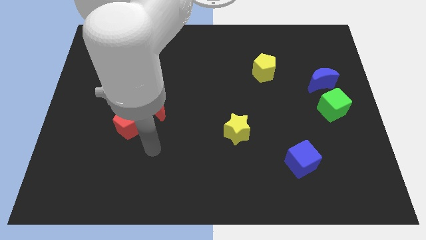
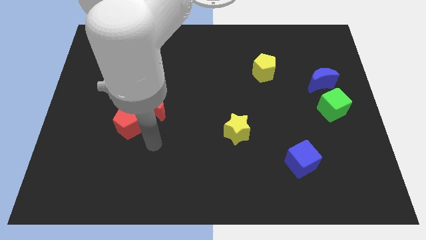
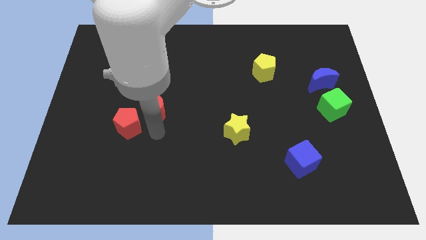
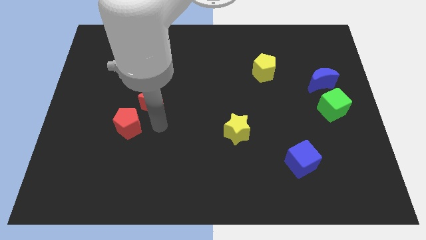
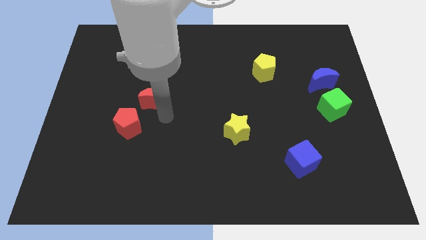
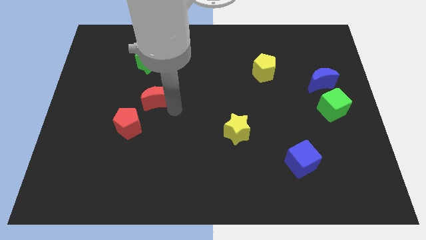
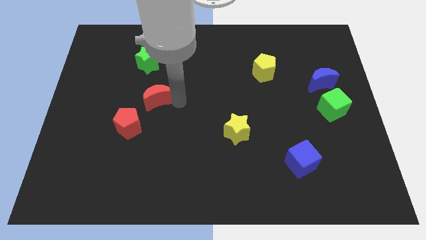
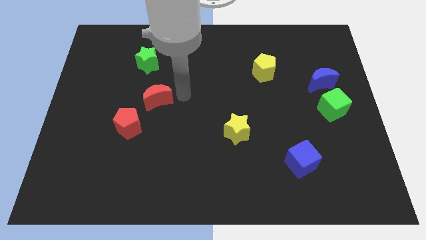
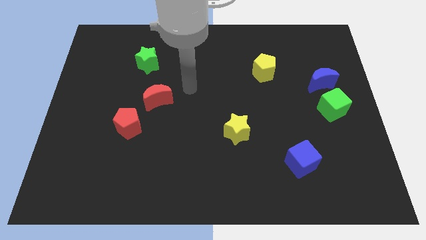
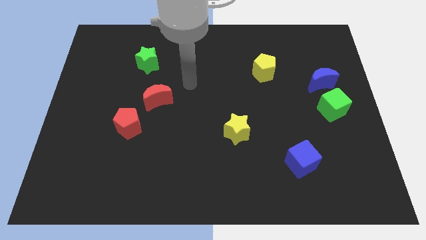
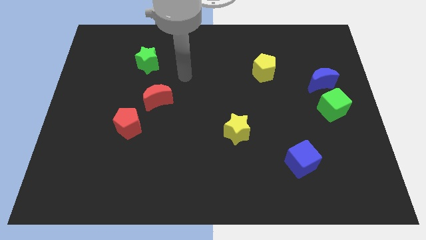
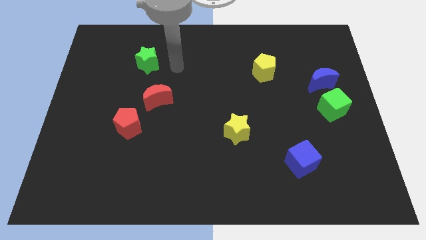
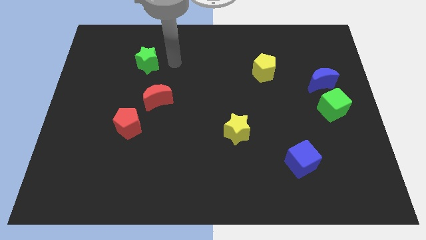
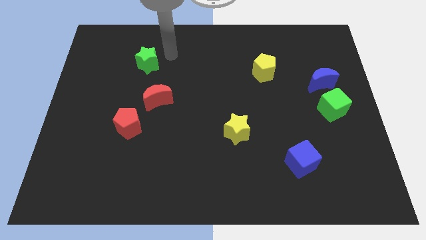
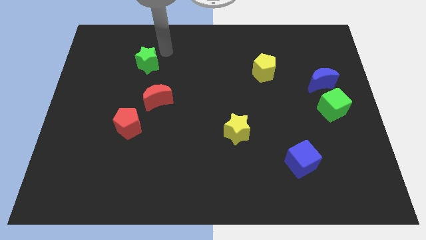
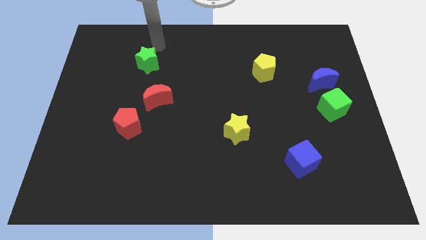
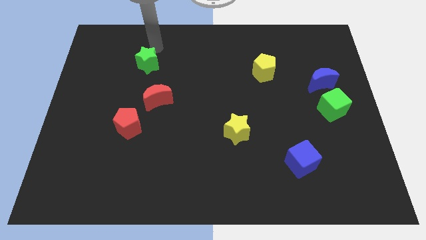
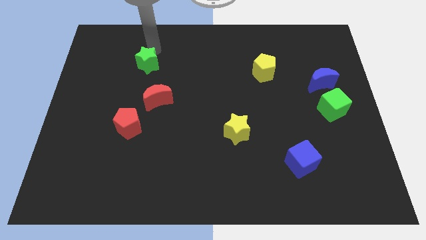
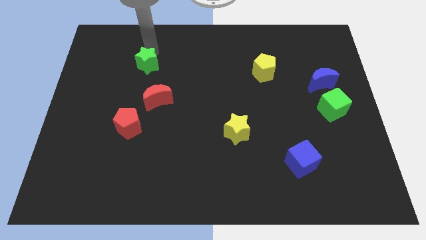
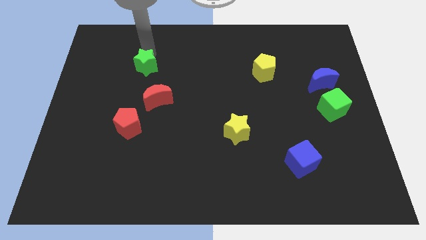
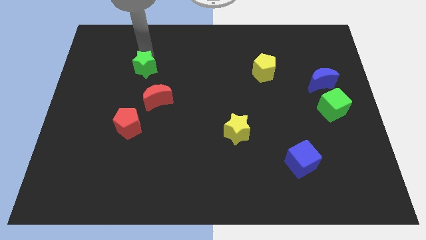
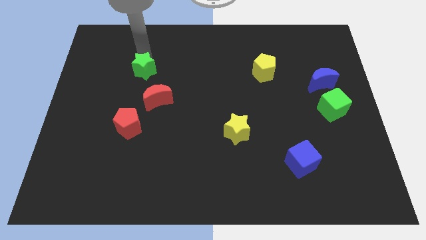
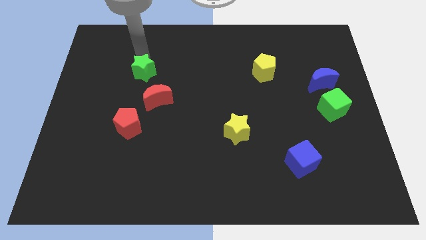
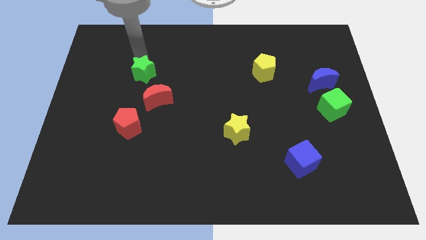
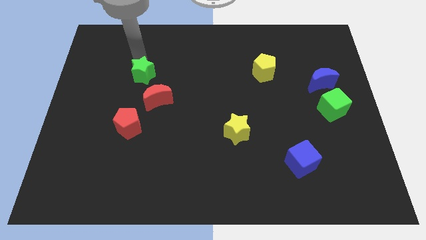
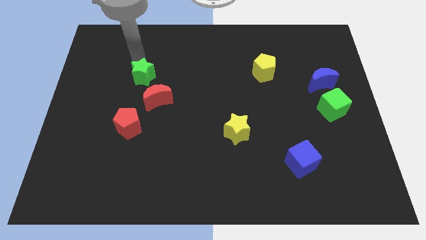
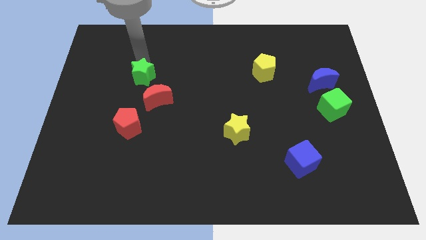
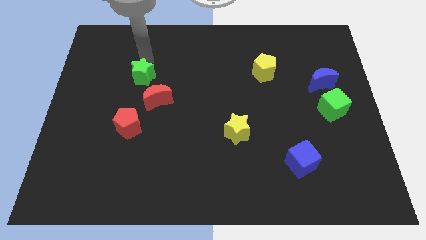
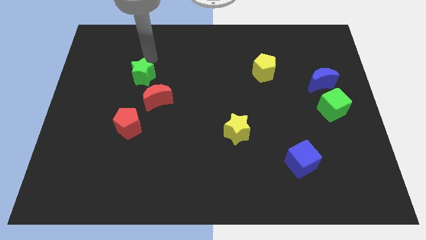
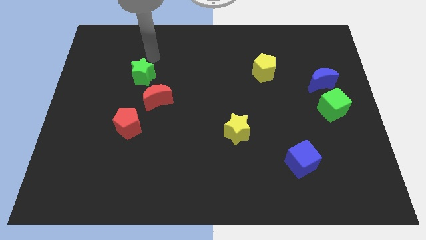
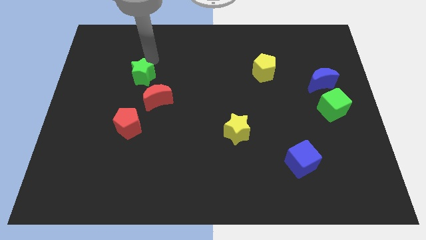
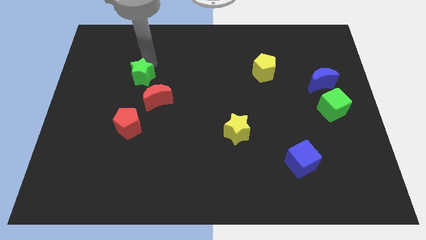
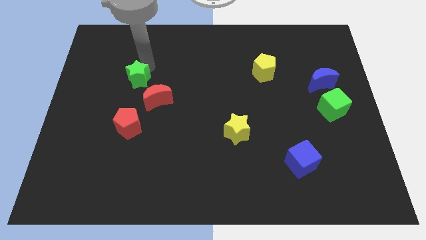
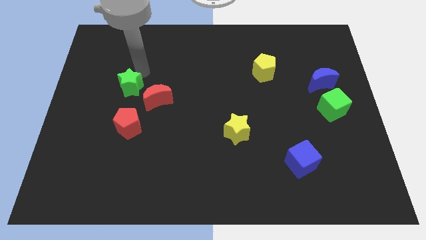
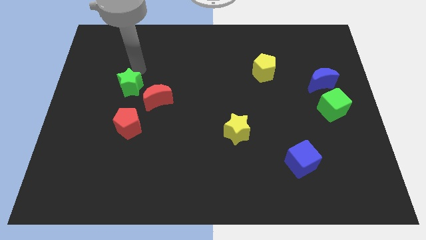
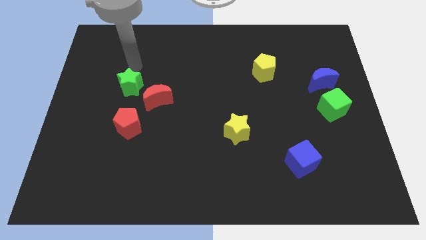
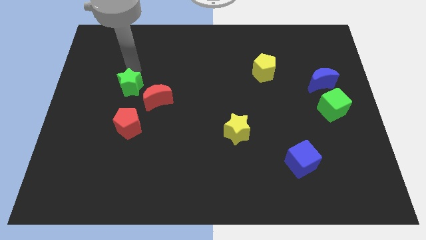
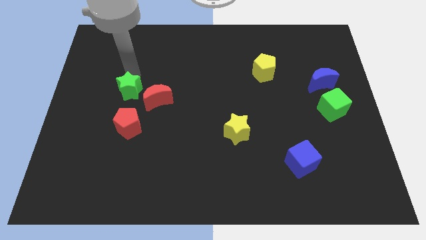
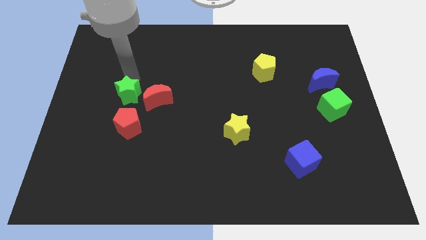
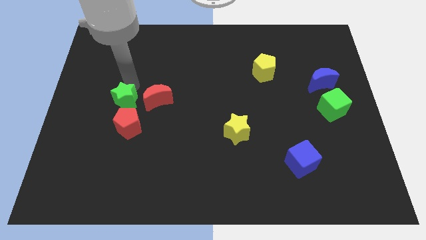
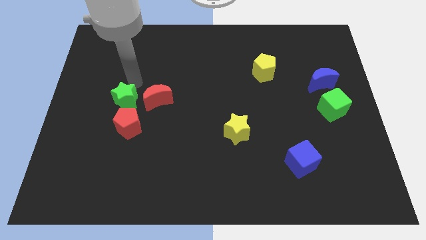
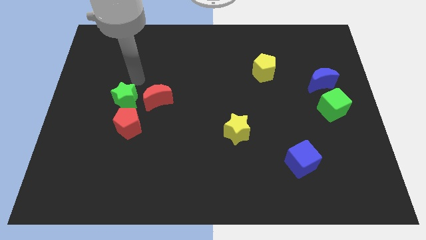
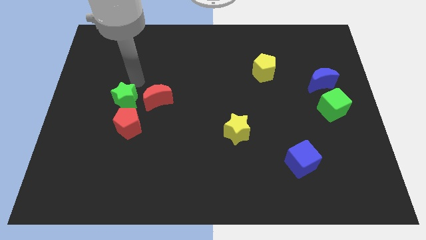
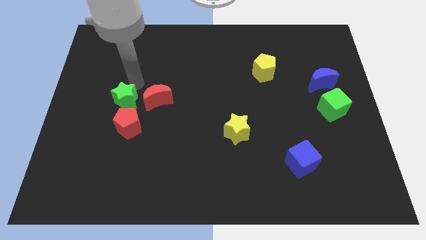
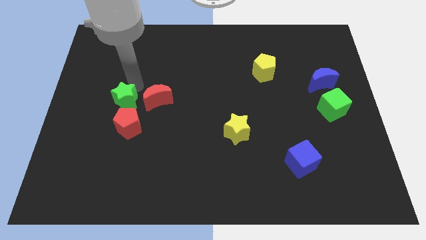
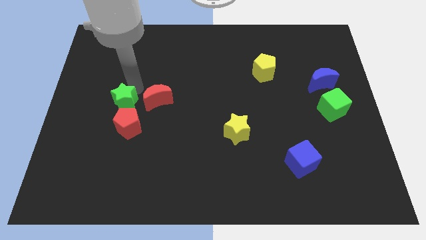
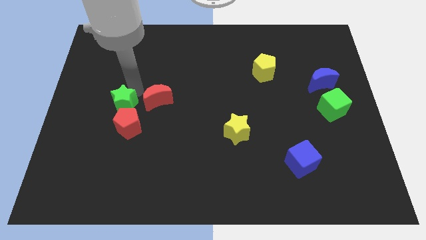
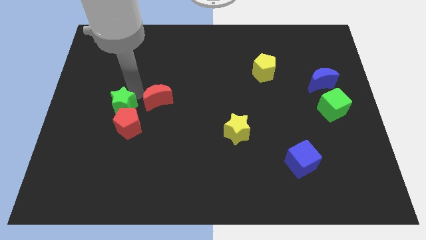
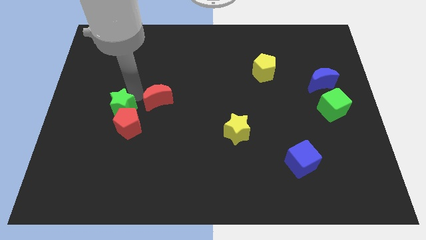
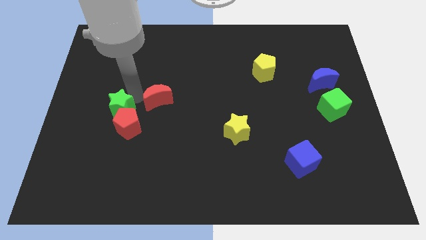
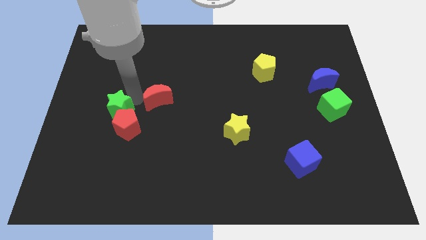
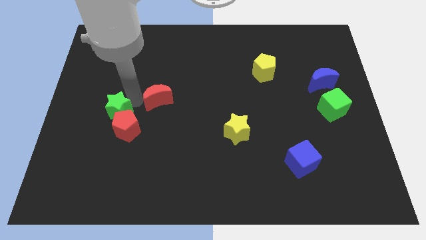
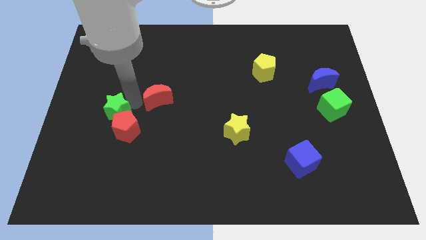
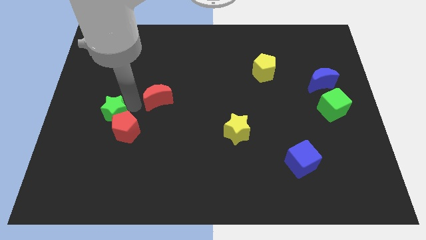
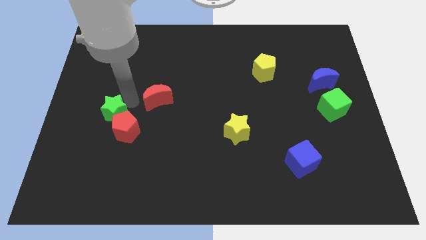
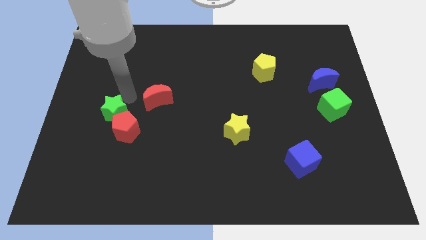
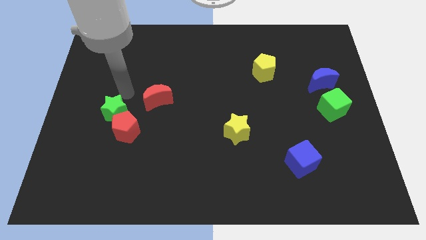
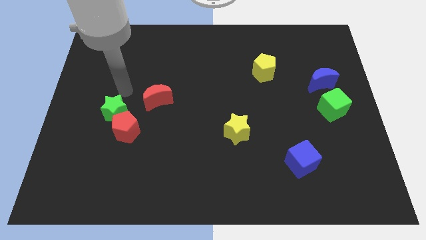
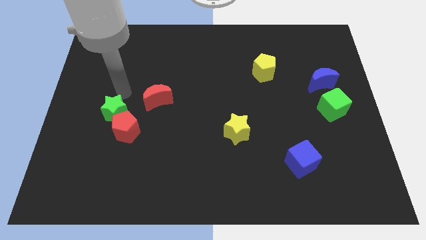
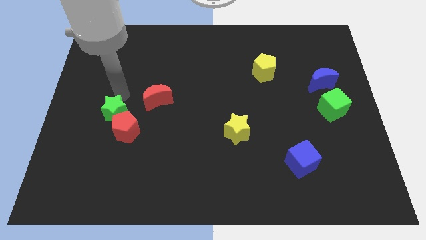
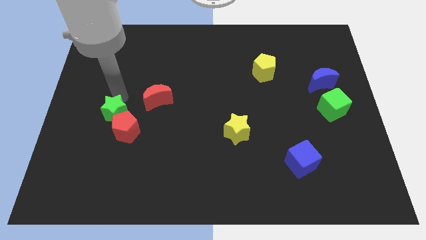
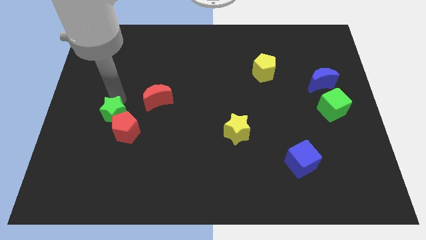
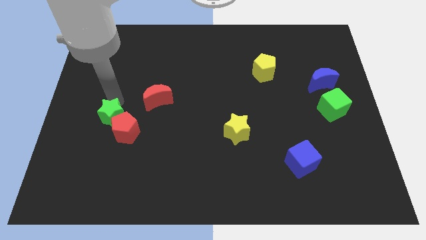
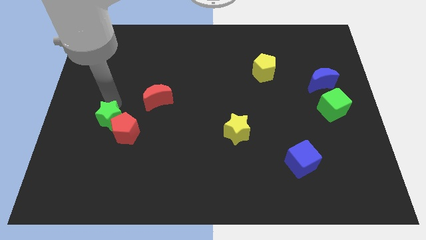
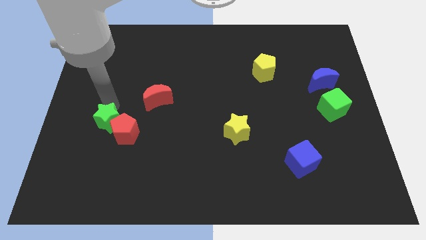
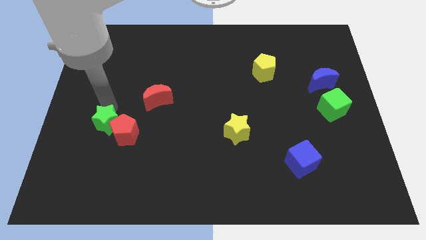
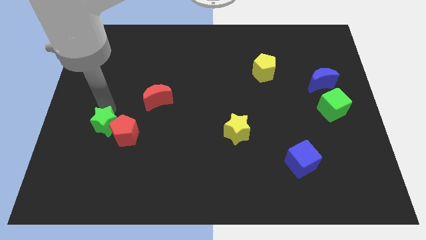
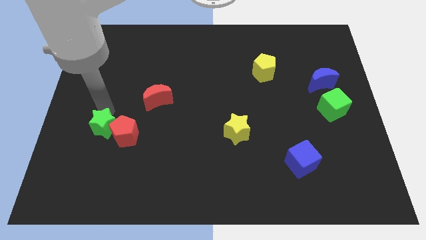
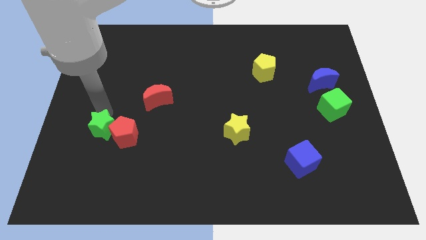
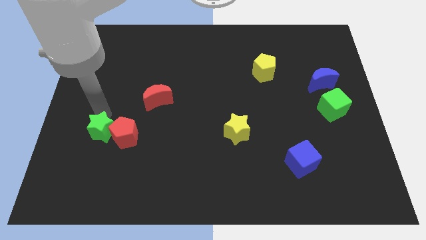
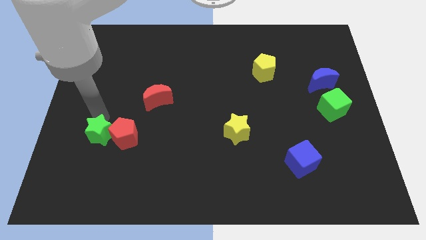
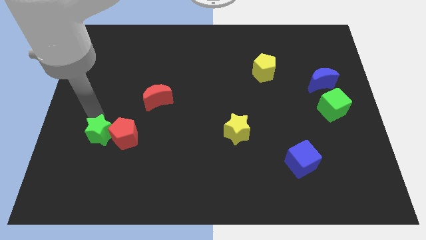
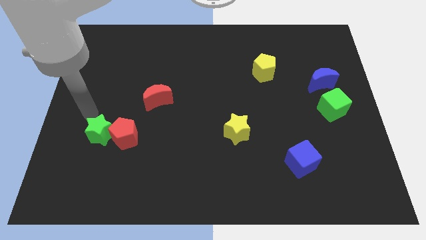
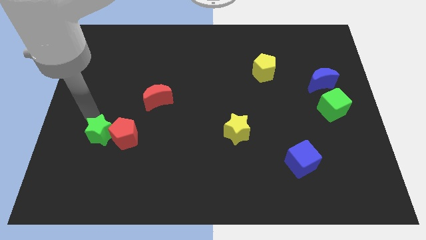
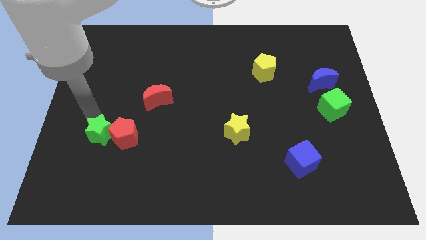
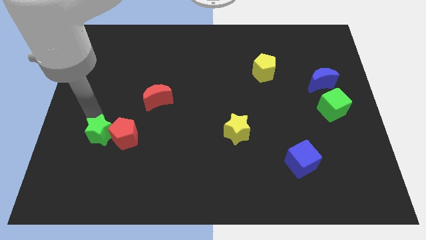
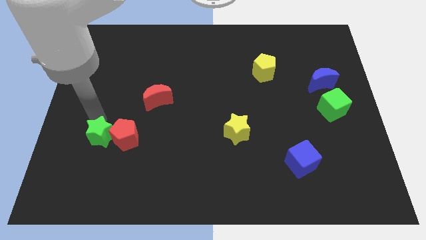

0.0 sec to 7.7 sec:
slide the green star downwards
